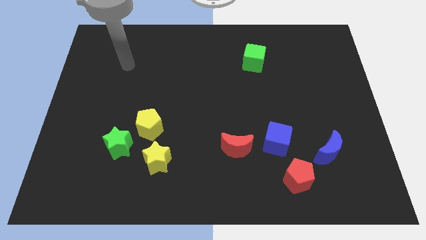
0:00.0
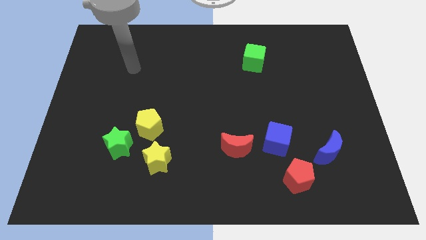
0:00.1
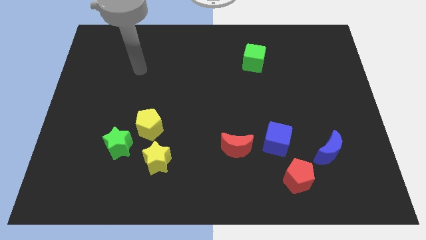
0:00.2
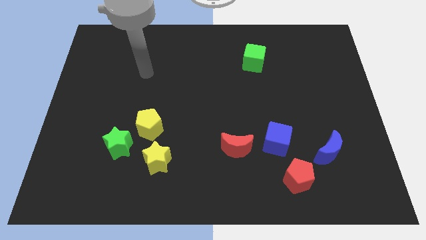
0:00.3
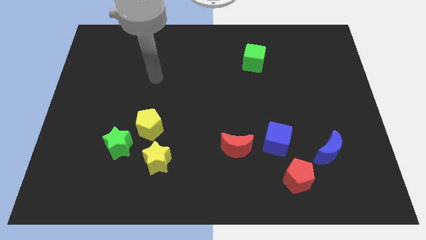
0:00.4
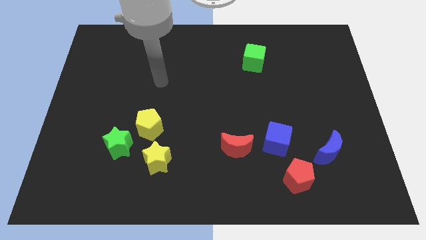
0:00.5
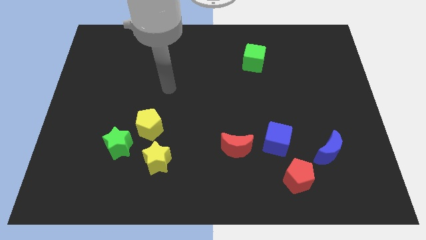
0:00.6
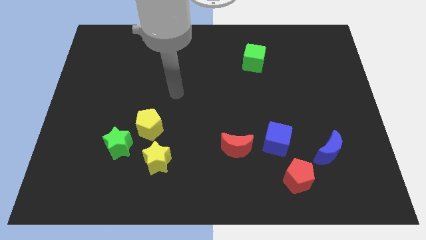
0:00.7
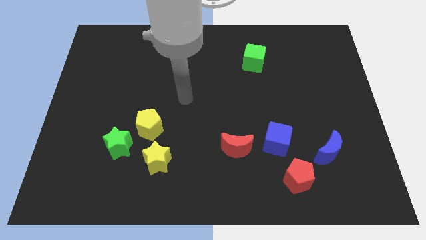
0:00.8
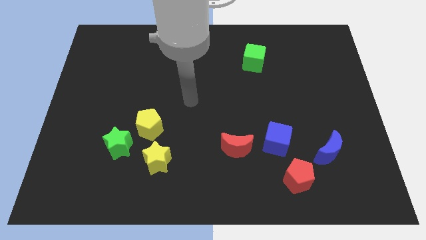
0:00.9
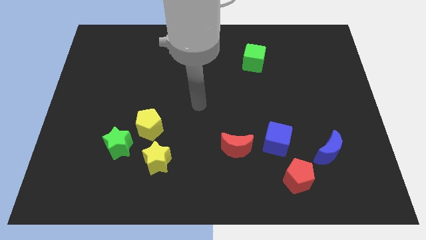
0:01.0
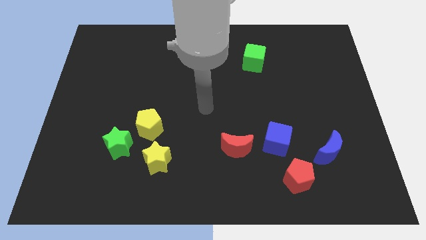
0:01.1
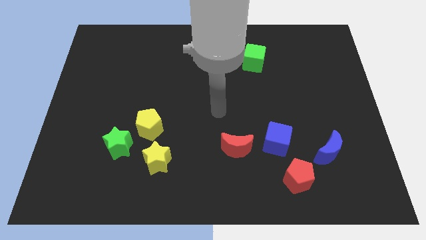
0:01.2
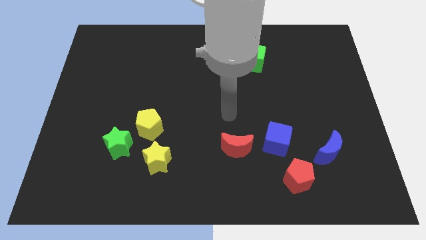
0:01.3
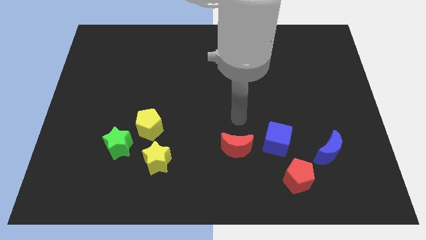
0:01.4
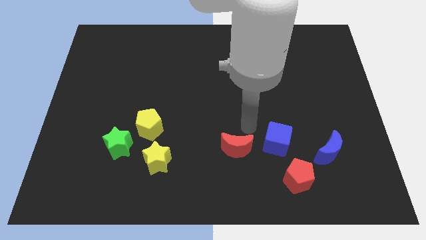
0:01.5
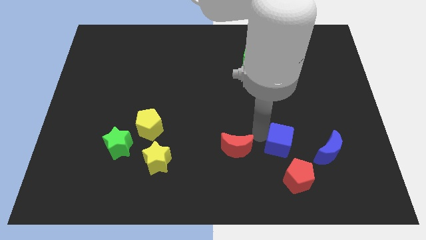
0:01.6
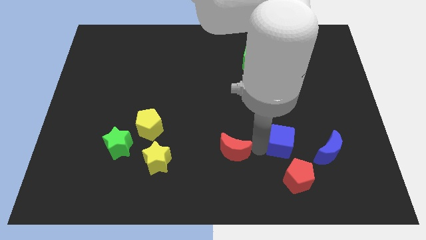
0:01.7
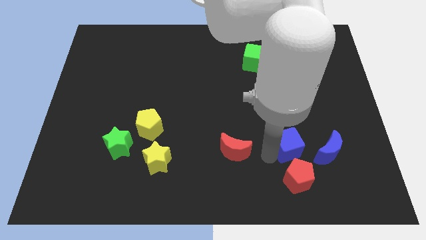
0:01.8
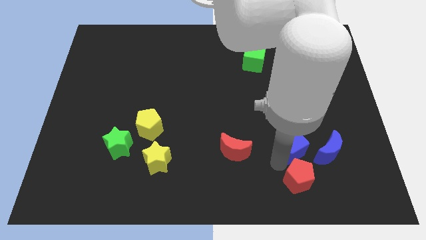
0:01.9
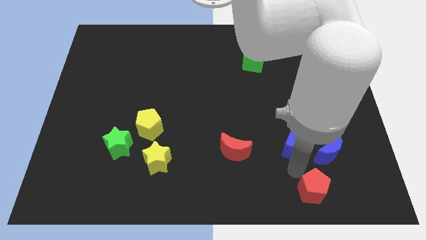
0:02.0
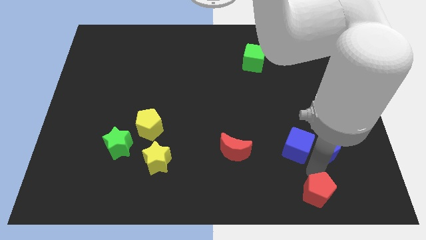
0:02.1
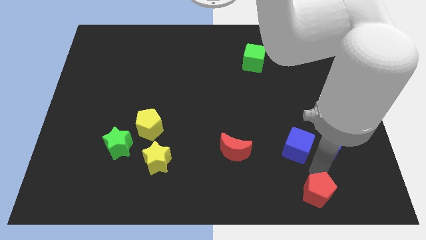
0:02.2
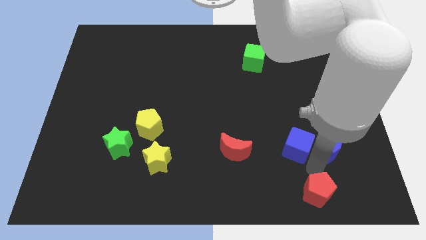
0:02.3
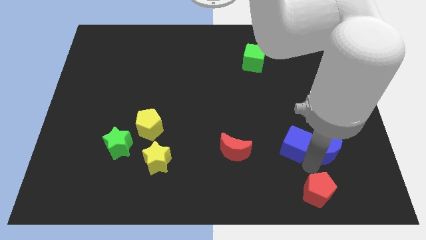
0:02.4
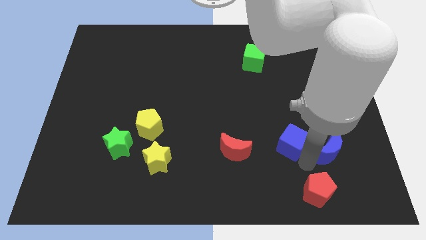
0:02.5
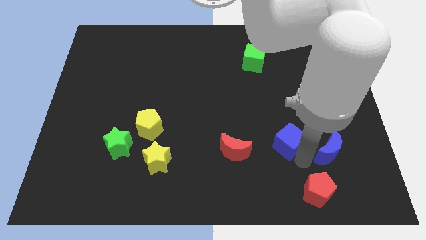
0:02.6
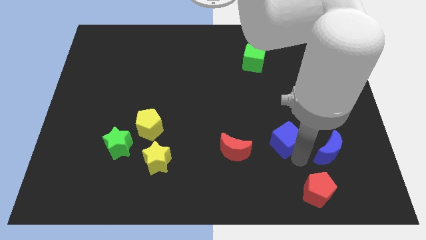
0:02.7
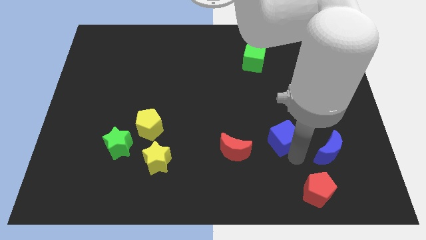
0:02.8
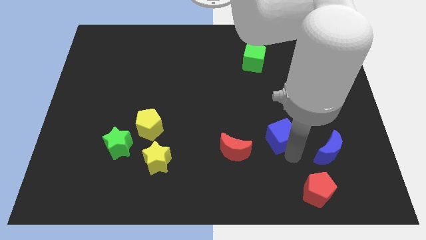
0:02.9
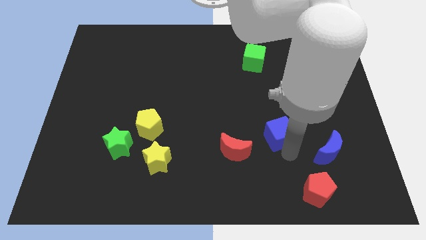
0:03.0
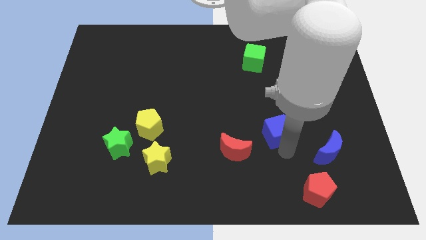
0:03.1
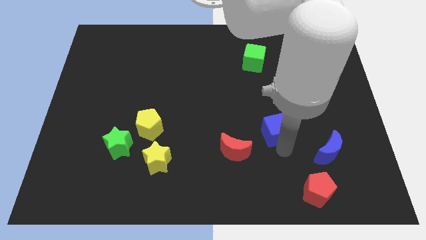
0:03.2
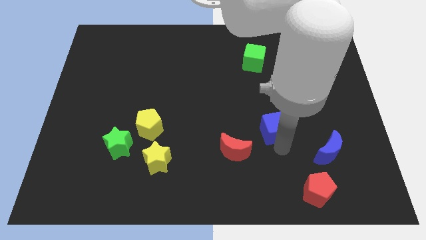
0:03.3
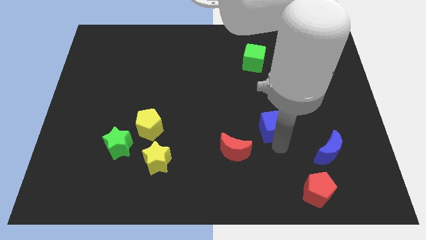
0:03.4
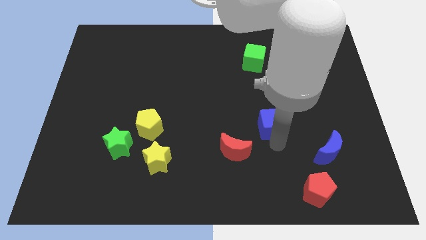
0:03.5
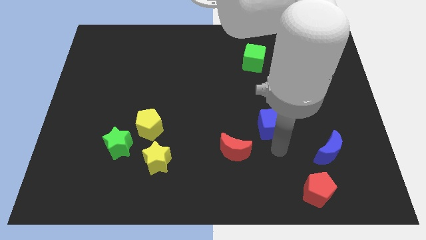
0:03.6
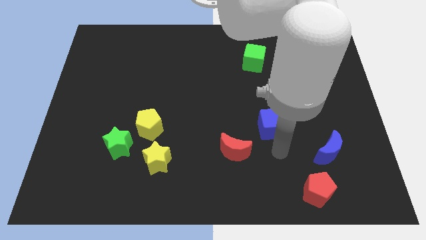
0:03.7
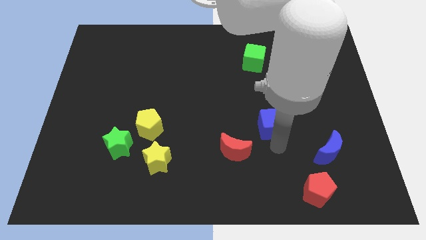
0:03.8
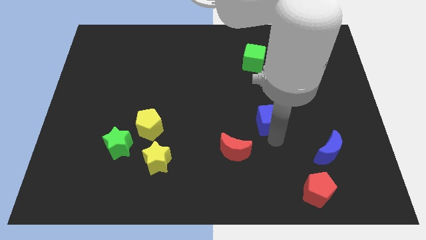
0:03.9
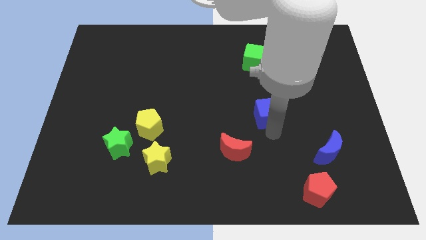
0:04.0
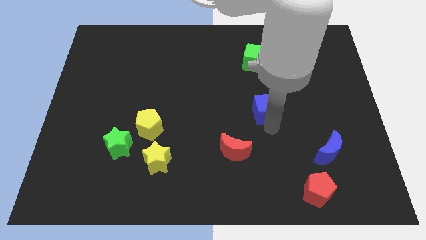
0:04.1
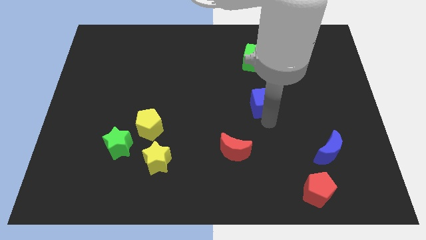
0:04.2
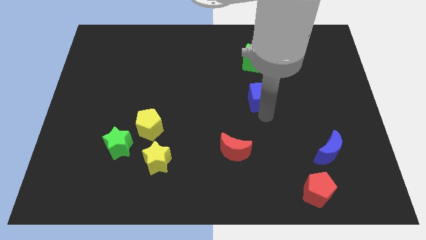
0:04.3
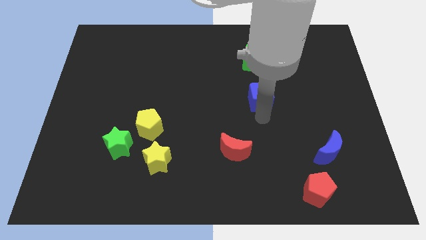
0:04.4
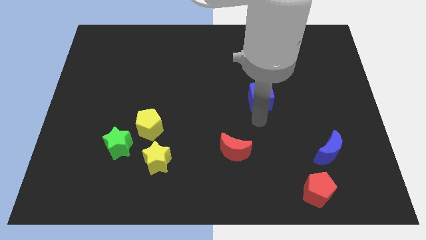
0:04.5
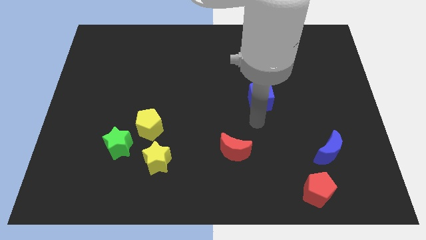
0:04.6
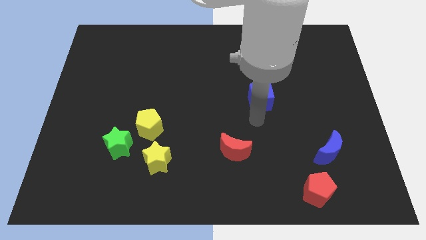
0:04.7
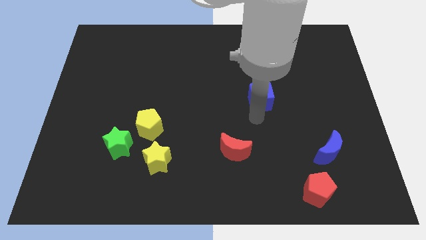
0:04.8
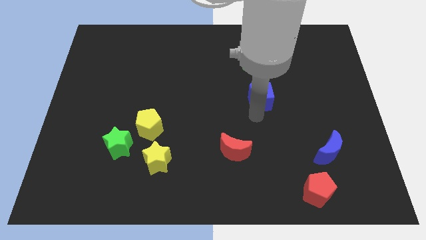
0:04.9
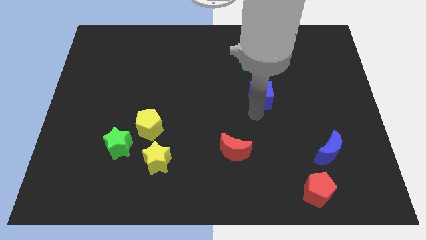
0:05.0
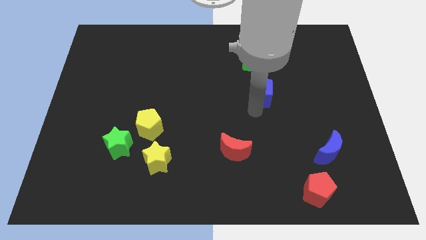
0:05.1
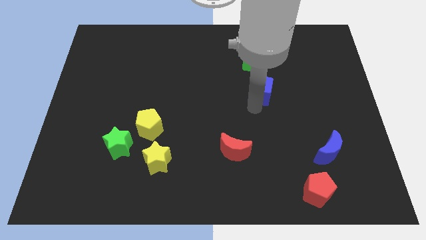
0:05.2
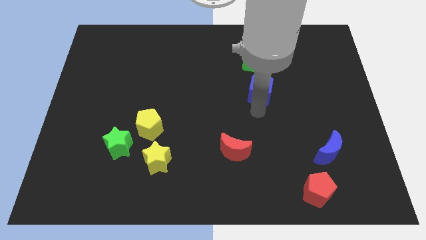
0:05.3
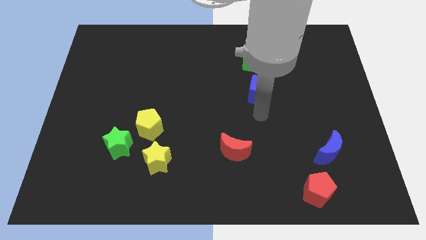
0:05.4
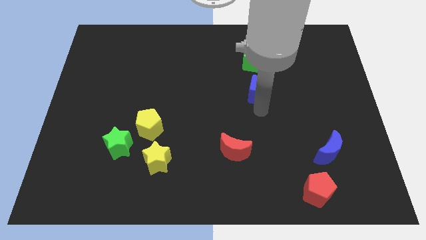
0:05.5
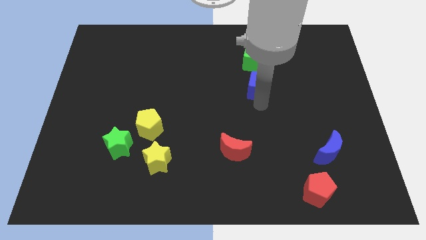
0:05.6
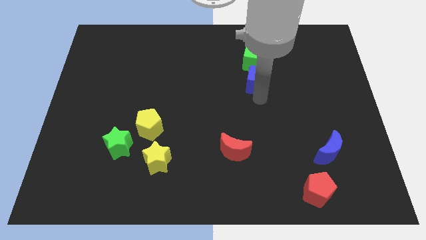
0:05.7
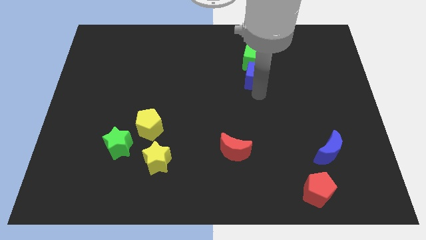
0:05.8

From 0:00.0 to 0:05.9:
move the blue cube to the green cube

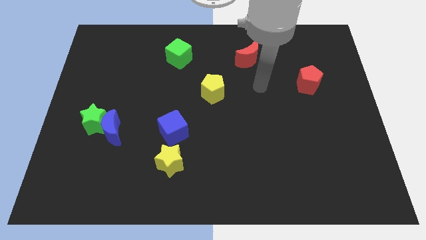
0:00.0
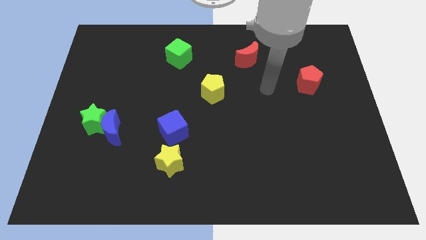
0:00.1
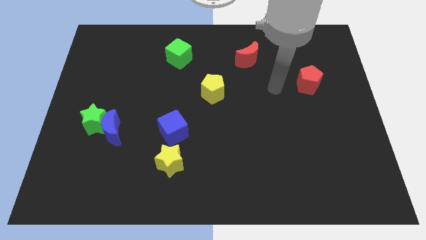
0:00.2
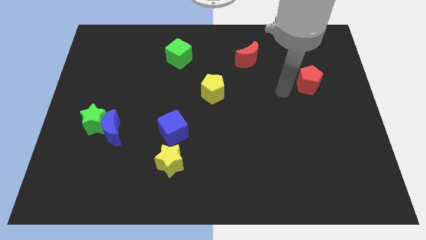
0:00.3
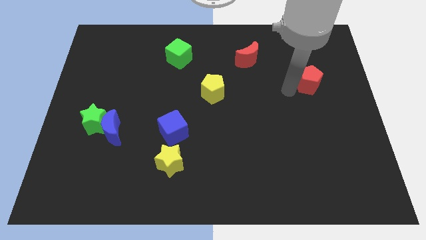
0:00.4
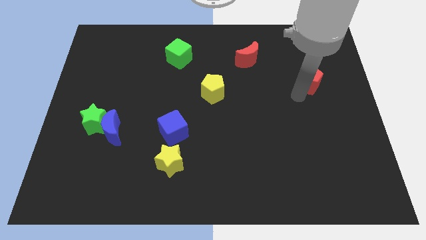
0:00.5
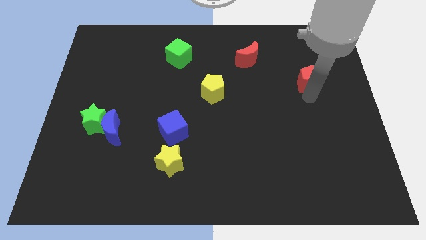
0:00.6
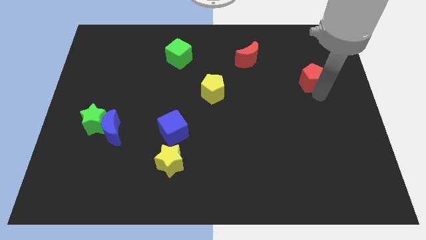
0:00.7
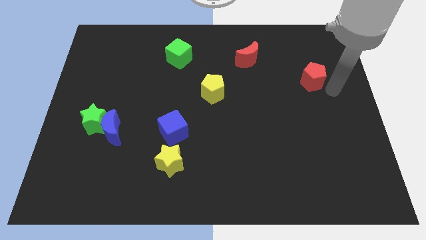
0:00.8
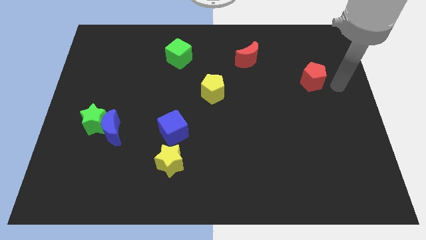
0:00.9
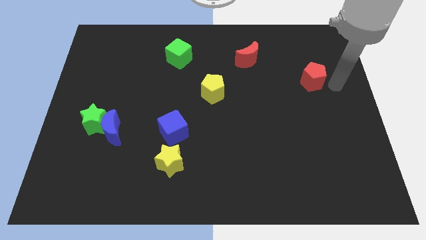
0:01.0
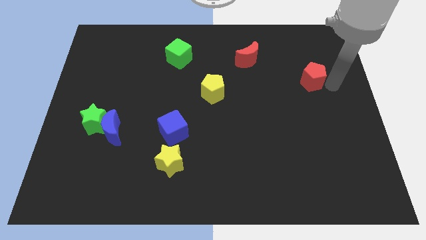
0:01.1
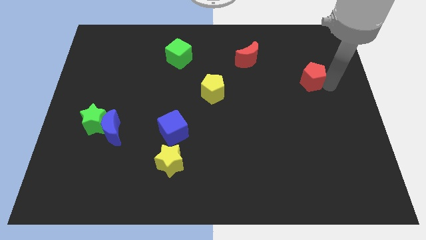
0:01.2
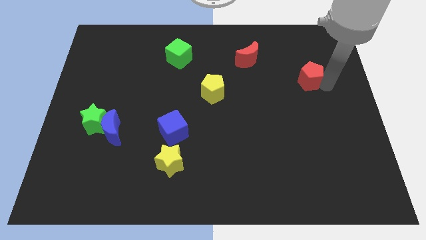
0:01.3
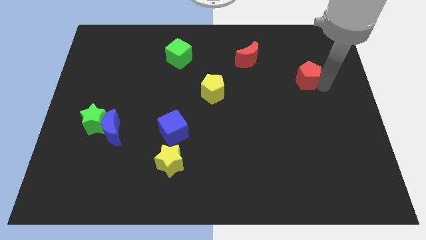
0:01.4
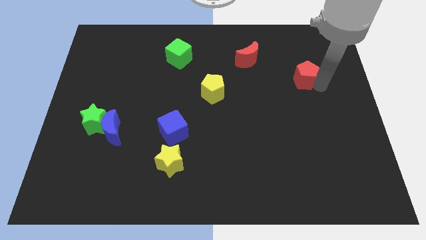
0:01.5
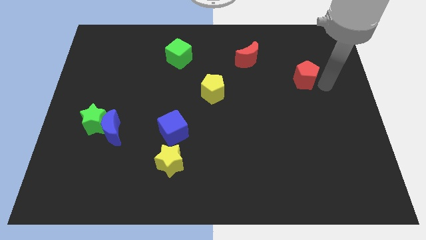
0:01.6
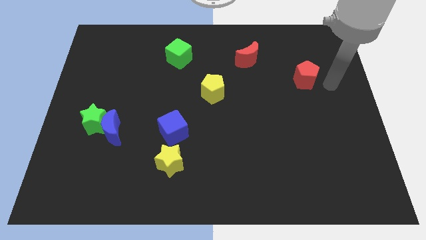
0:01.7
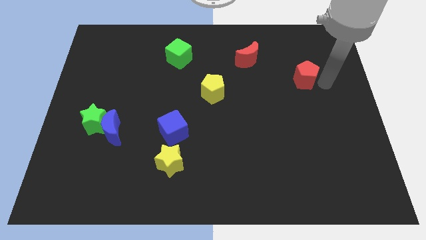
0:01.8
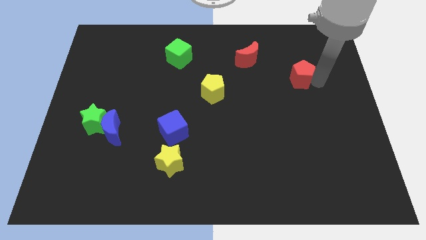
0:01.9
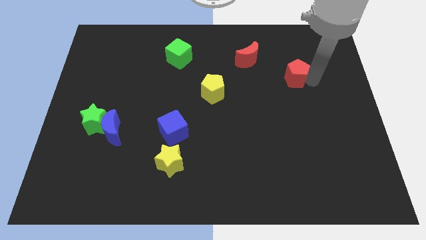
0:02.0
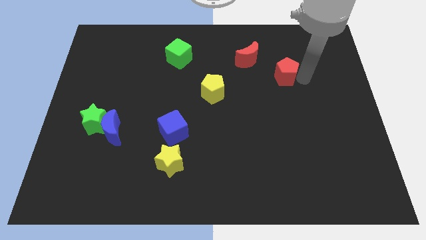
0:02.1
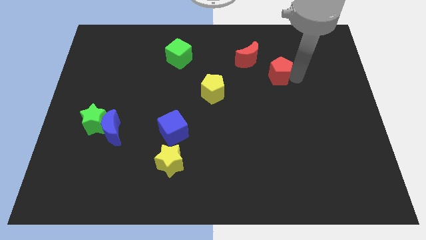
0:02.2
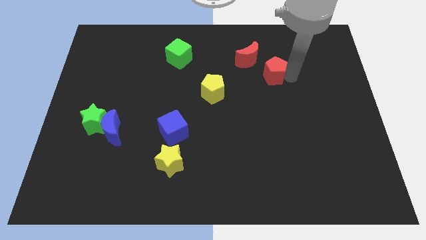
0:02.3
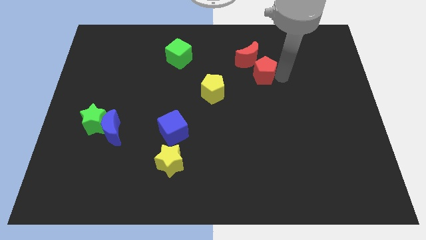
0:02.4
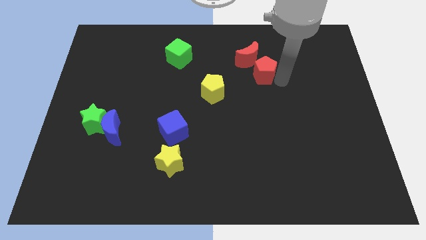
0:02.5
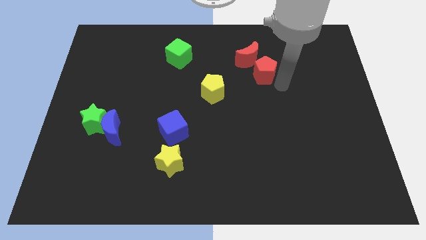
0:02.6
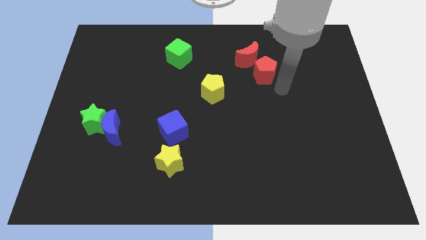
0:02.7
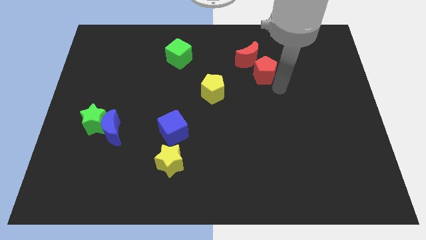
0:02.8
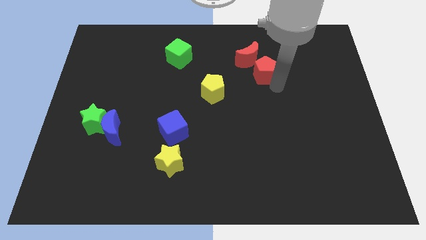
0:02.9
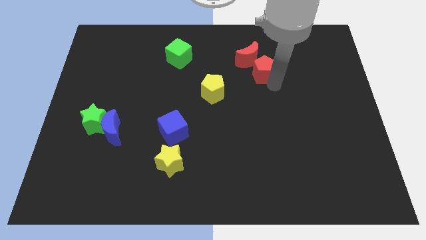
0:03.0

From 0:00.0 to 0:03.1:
move the red pentagon towards the red moon
